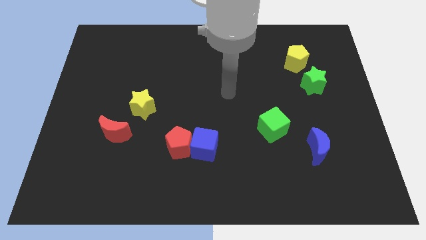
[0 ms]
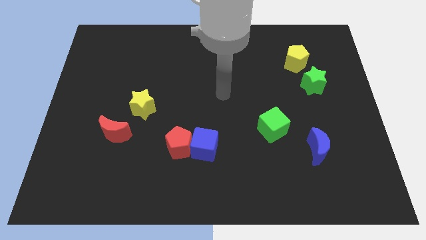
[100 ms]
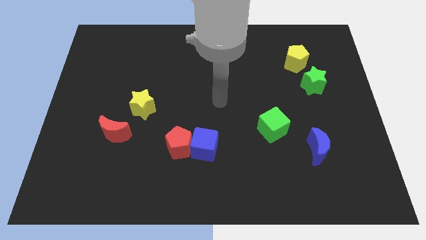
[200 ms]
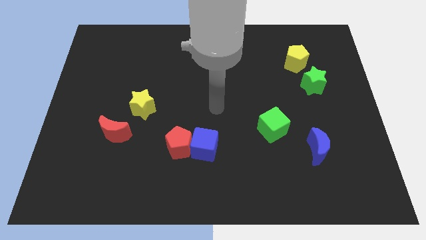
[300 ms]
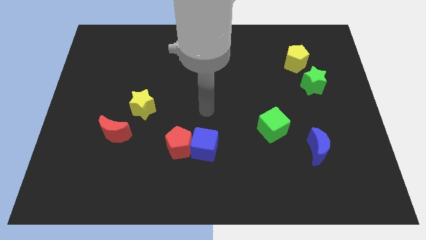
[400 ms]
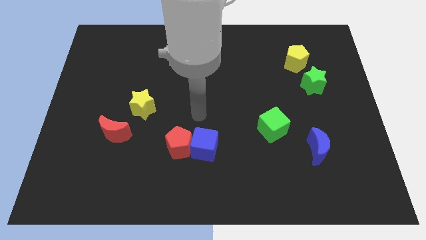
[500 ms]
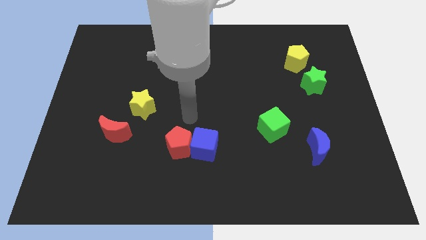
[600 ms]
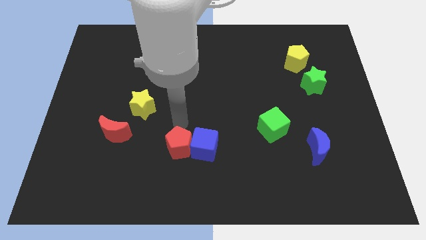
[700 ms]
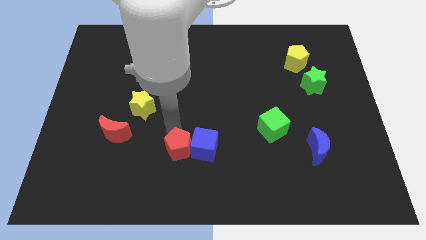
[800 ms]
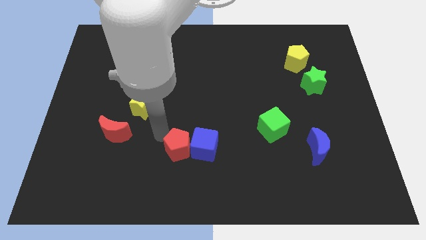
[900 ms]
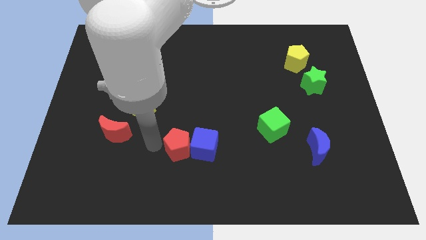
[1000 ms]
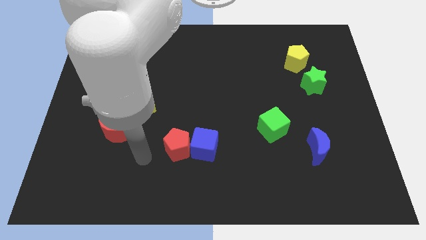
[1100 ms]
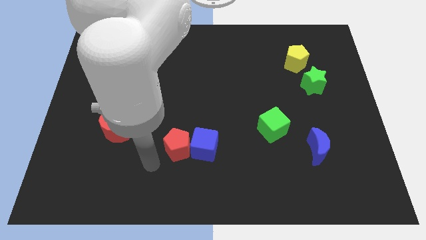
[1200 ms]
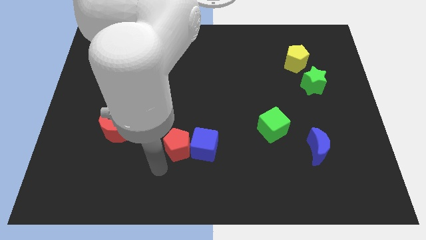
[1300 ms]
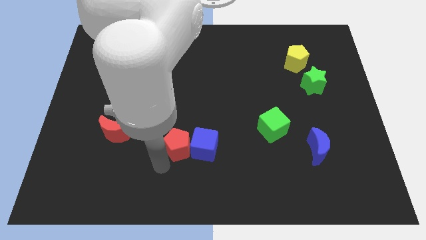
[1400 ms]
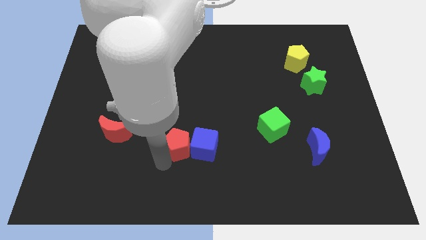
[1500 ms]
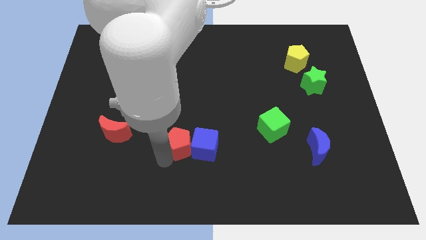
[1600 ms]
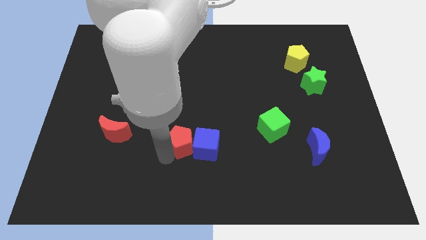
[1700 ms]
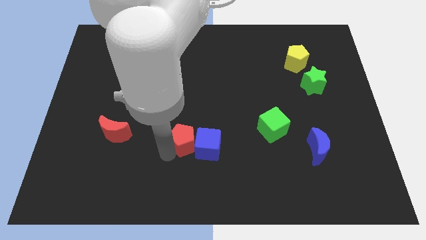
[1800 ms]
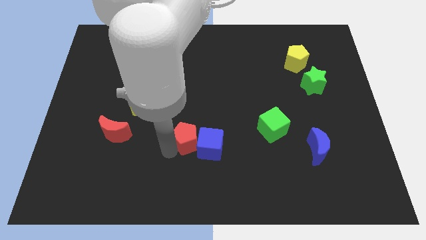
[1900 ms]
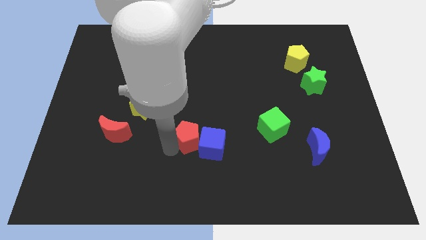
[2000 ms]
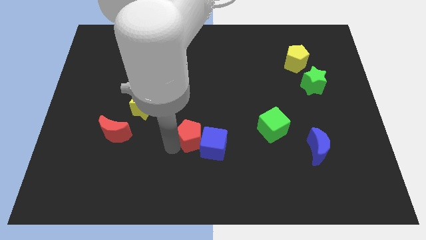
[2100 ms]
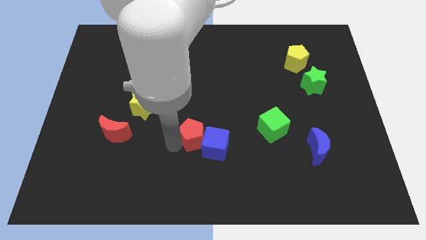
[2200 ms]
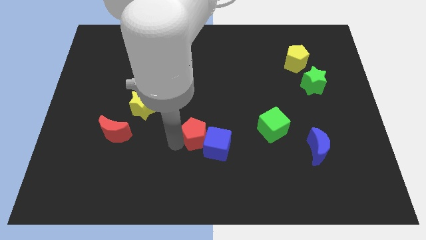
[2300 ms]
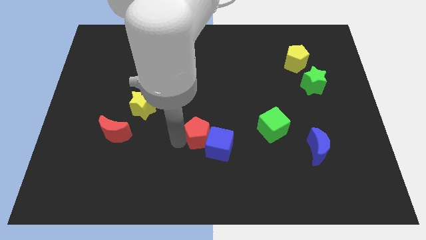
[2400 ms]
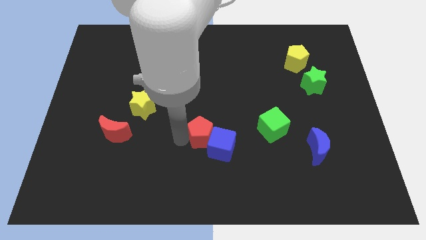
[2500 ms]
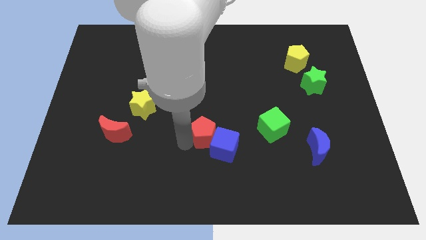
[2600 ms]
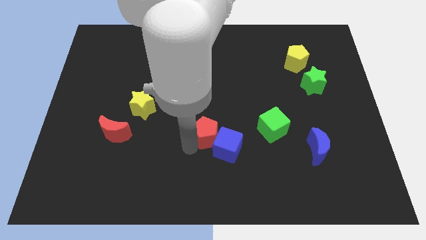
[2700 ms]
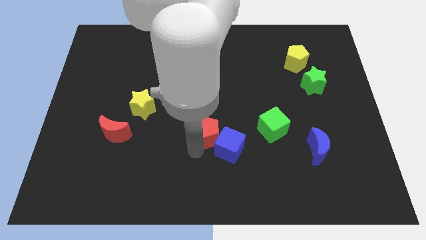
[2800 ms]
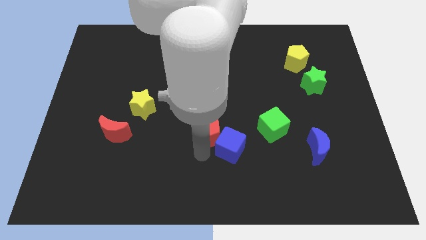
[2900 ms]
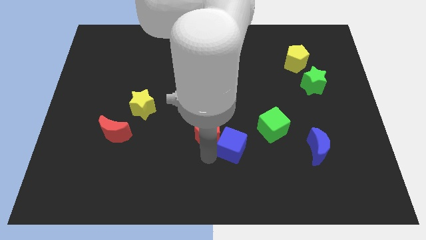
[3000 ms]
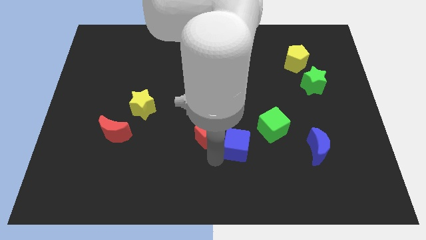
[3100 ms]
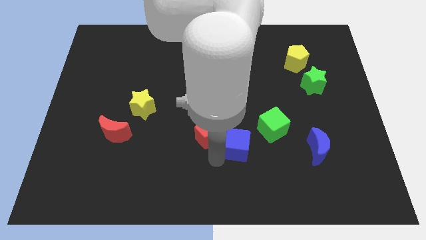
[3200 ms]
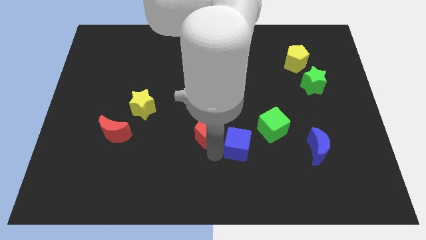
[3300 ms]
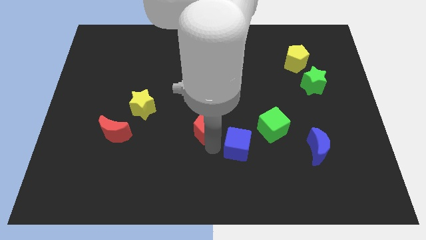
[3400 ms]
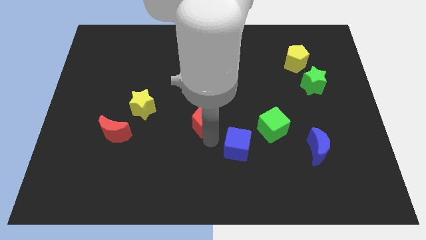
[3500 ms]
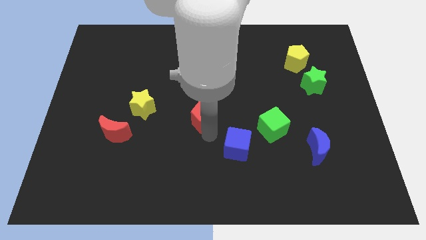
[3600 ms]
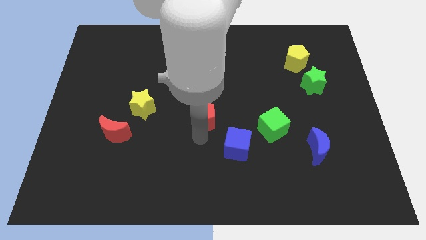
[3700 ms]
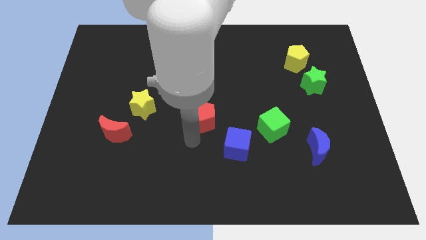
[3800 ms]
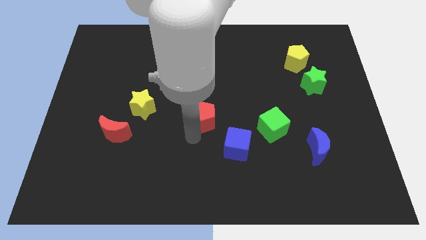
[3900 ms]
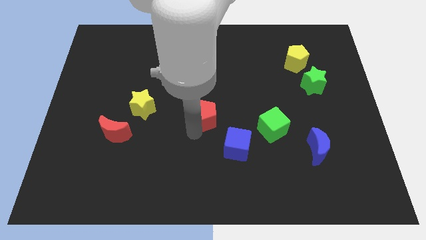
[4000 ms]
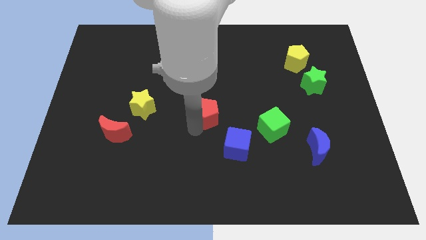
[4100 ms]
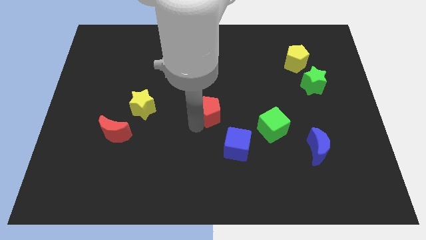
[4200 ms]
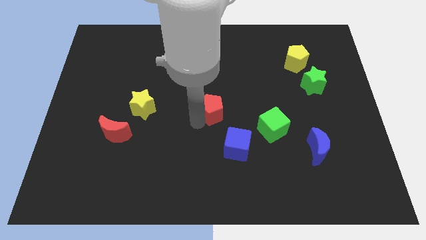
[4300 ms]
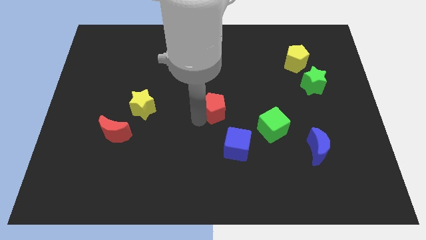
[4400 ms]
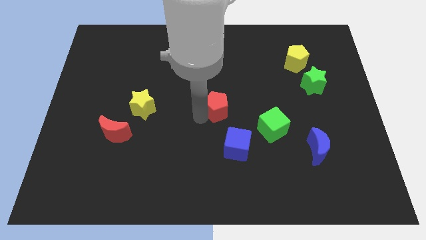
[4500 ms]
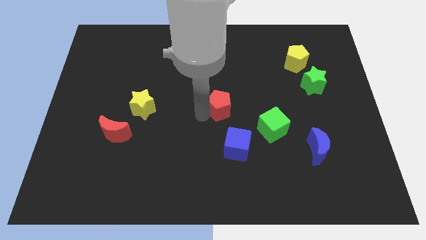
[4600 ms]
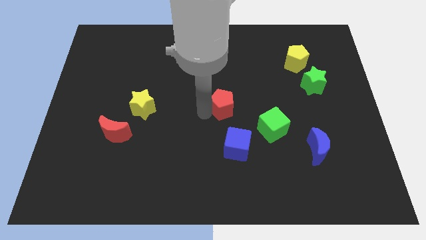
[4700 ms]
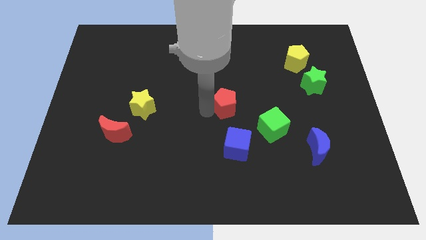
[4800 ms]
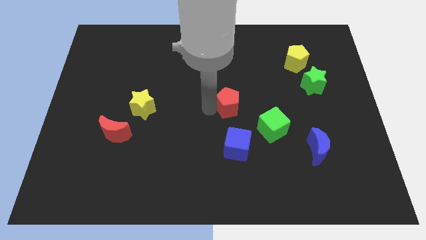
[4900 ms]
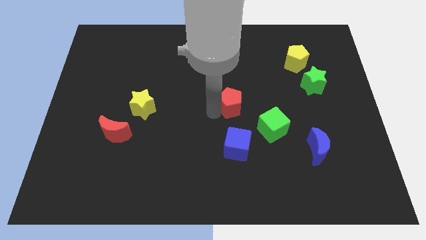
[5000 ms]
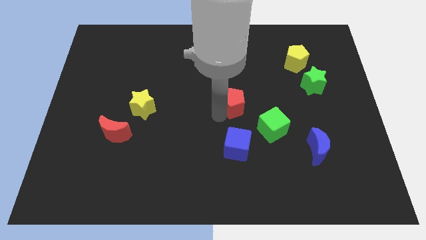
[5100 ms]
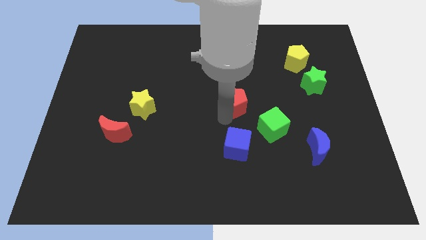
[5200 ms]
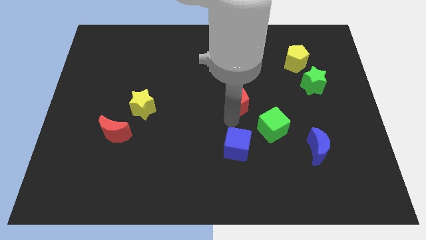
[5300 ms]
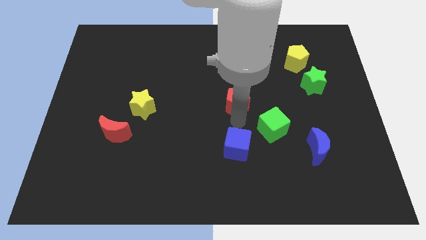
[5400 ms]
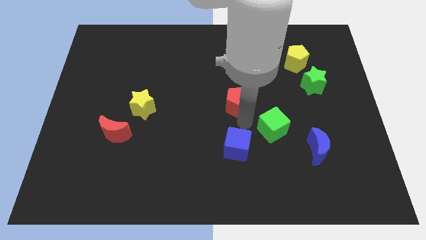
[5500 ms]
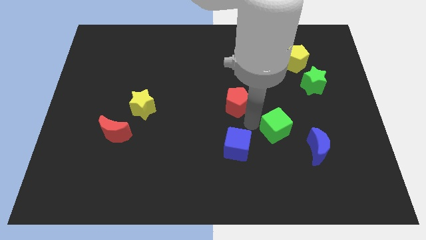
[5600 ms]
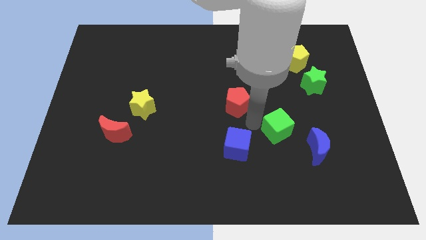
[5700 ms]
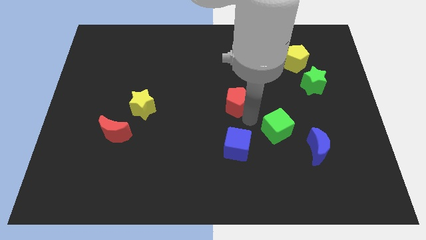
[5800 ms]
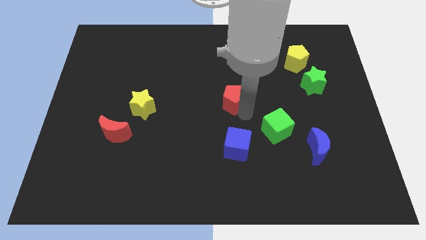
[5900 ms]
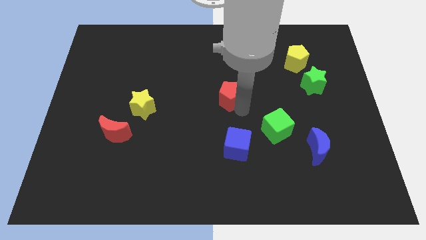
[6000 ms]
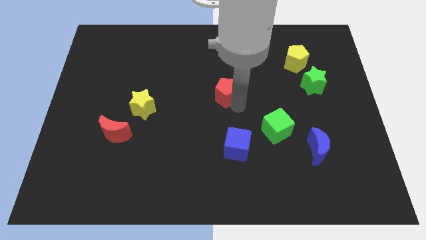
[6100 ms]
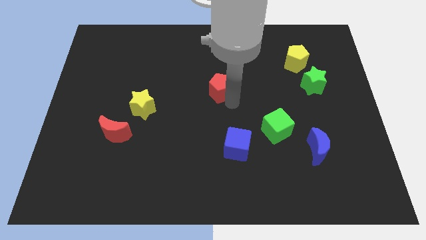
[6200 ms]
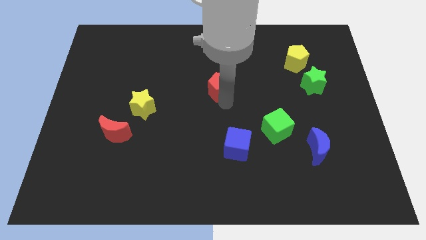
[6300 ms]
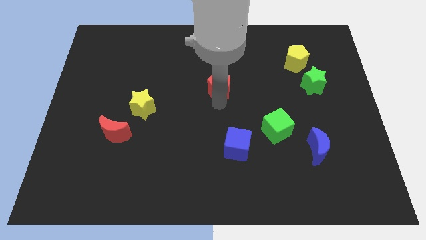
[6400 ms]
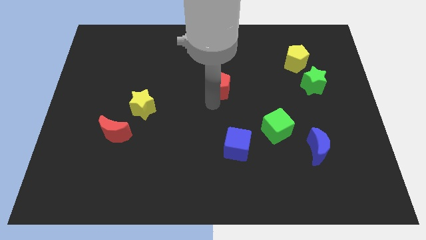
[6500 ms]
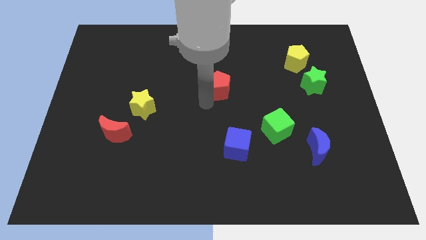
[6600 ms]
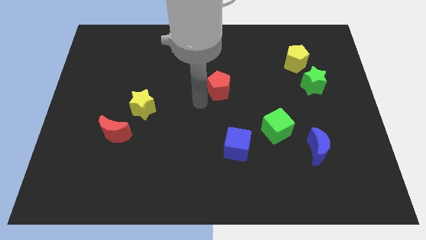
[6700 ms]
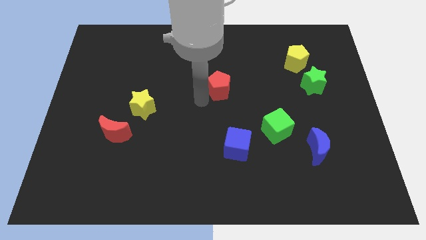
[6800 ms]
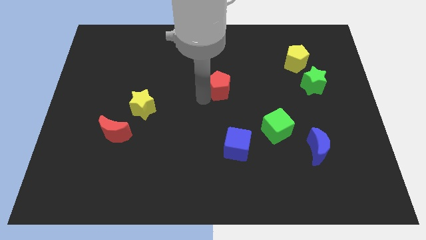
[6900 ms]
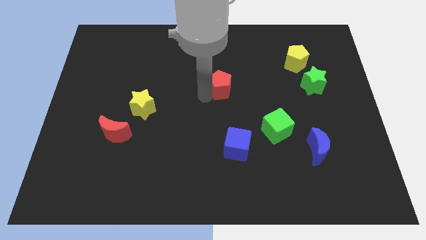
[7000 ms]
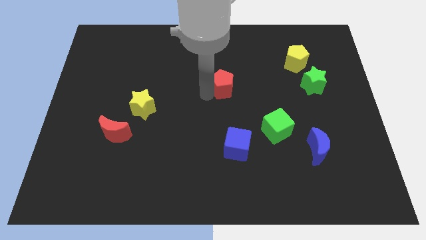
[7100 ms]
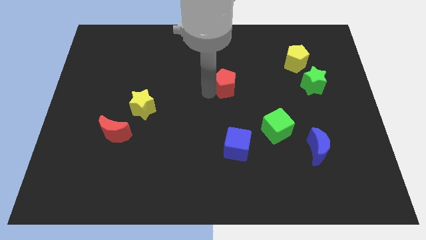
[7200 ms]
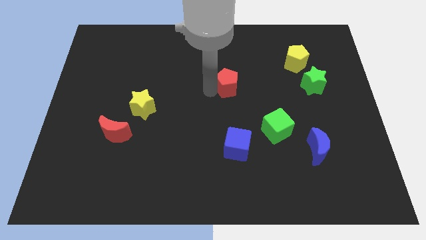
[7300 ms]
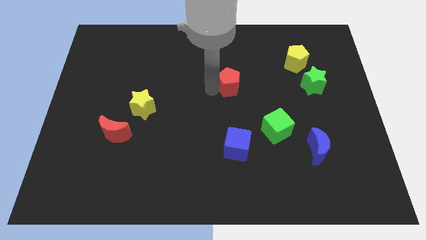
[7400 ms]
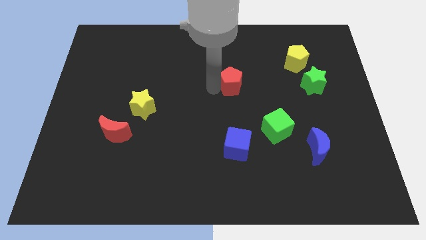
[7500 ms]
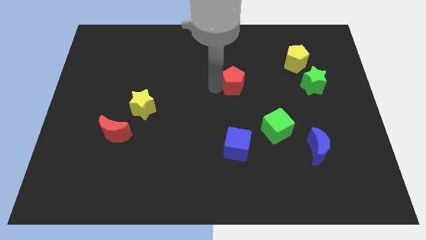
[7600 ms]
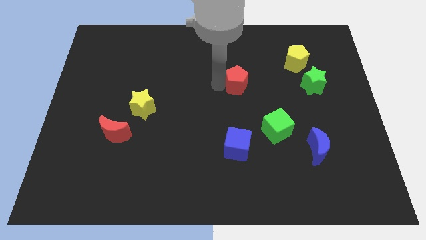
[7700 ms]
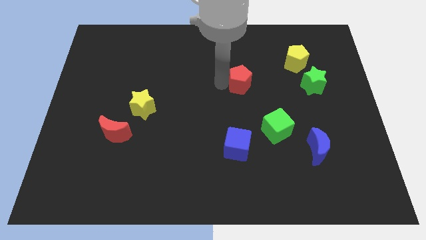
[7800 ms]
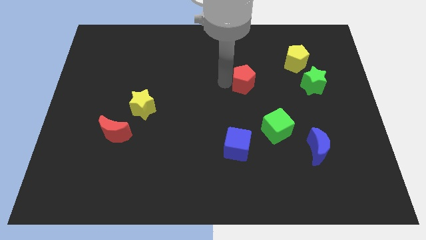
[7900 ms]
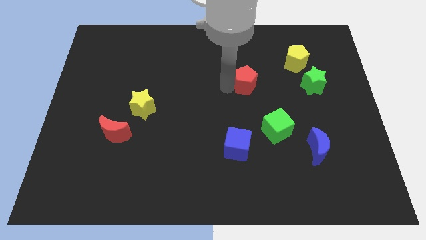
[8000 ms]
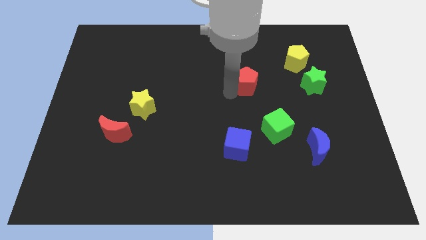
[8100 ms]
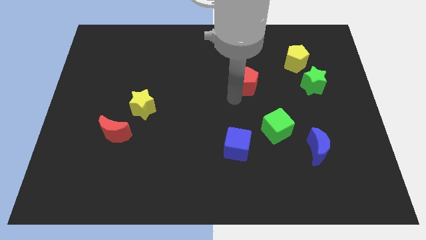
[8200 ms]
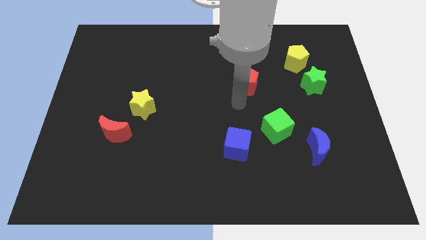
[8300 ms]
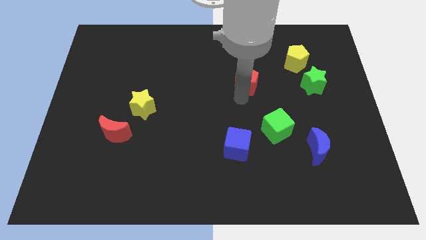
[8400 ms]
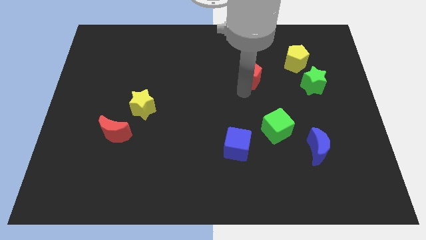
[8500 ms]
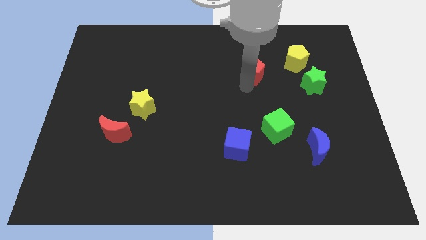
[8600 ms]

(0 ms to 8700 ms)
push the red pentagon just left of the yellow pentagon
